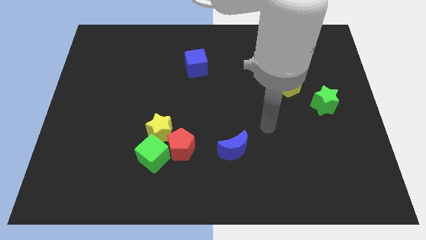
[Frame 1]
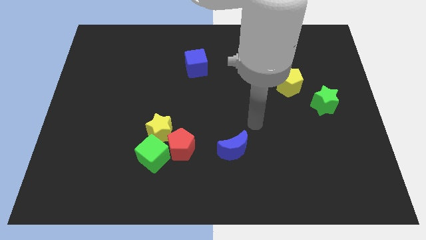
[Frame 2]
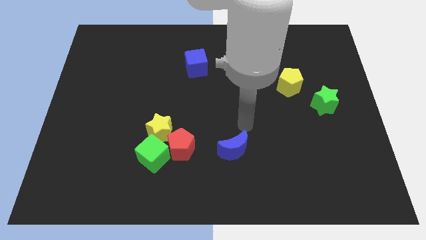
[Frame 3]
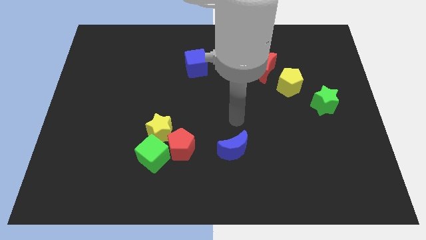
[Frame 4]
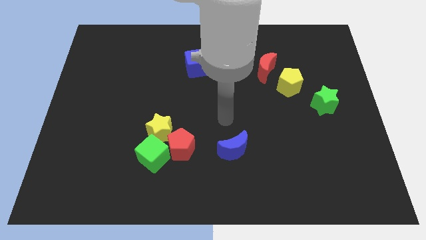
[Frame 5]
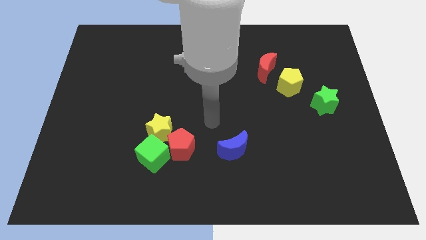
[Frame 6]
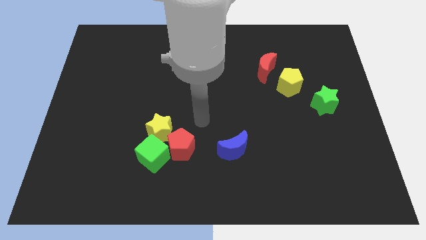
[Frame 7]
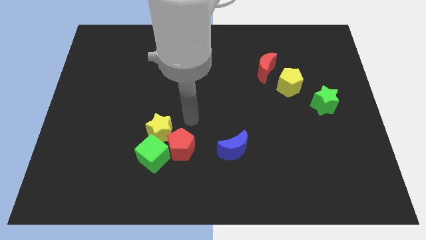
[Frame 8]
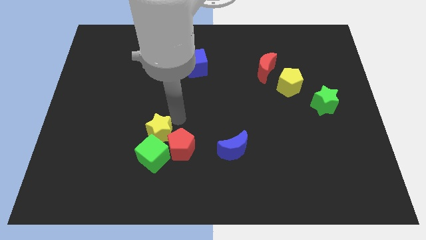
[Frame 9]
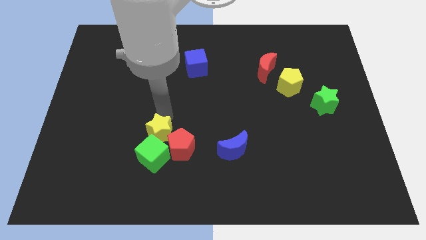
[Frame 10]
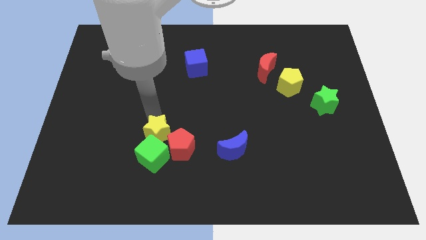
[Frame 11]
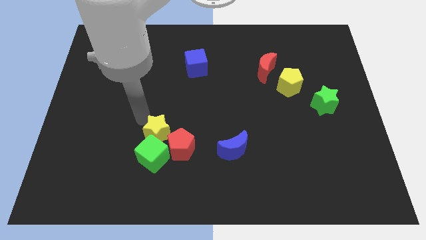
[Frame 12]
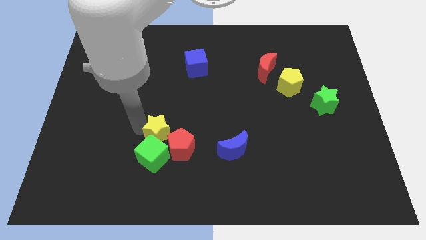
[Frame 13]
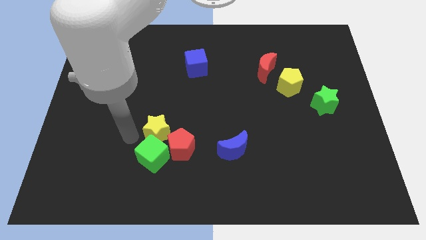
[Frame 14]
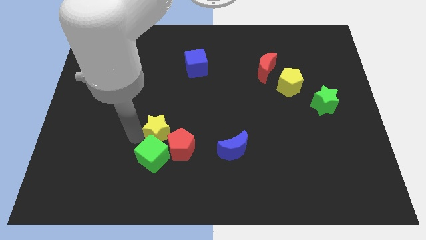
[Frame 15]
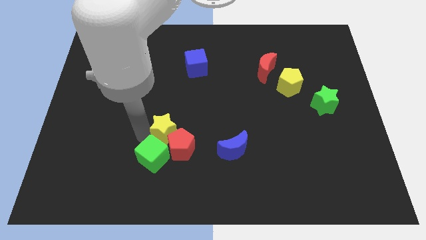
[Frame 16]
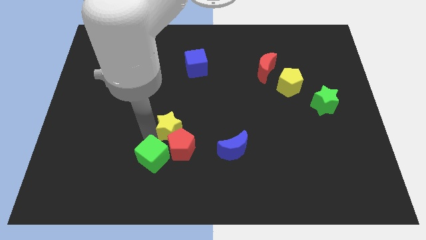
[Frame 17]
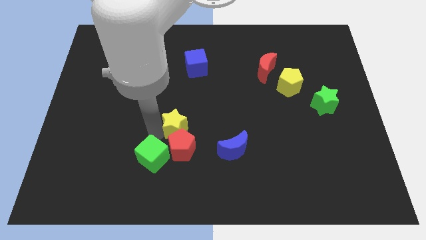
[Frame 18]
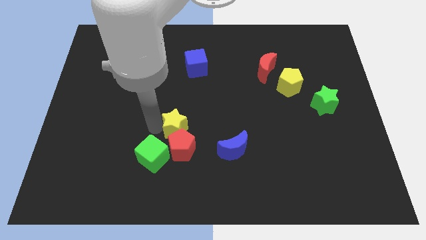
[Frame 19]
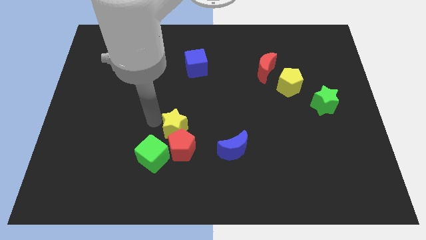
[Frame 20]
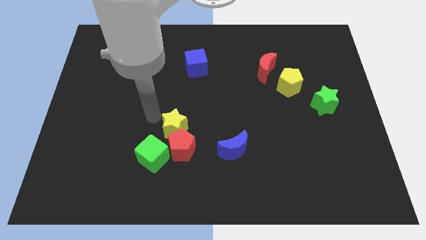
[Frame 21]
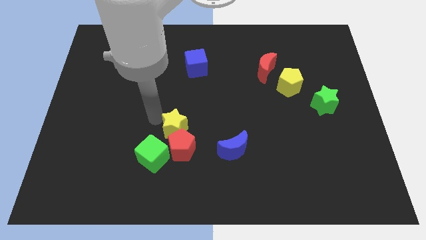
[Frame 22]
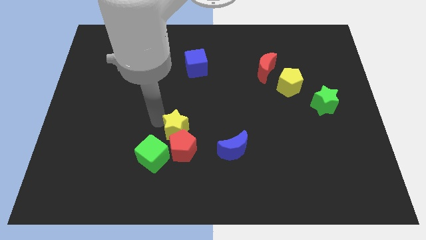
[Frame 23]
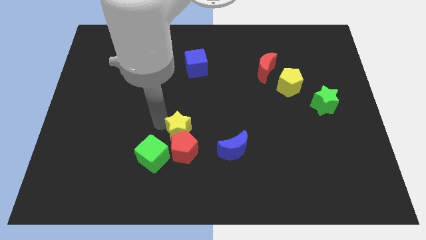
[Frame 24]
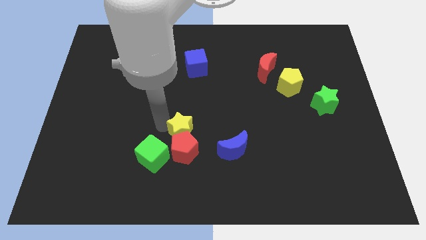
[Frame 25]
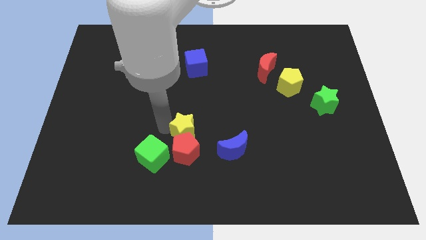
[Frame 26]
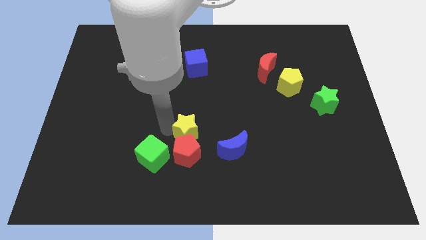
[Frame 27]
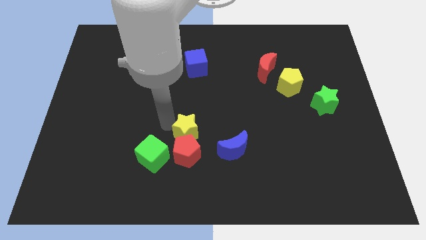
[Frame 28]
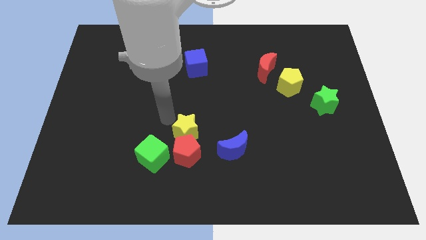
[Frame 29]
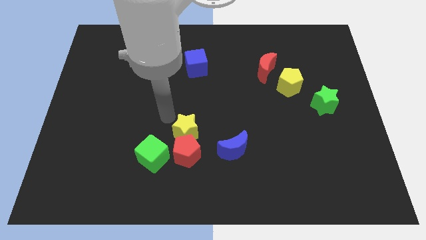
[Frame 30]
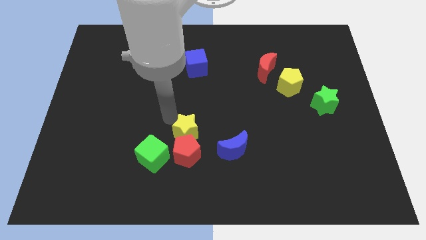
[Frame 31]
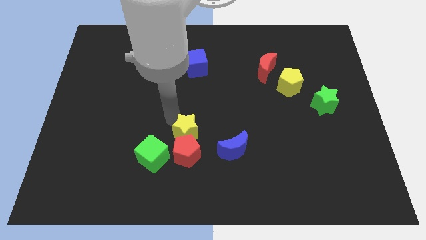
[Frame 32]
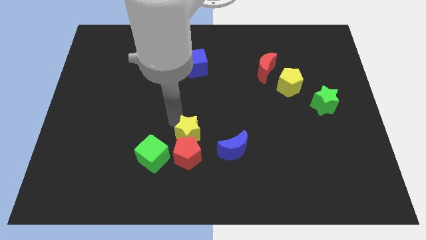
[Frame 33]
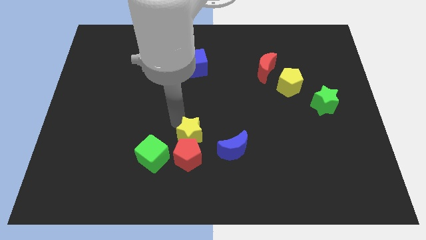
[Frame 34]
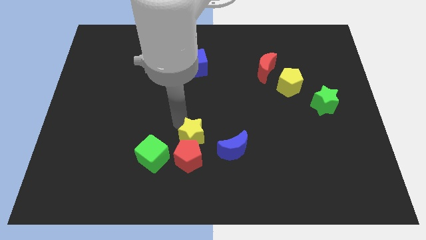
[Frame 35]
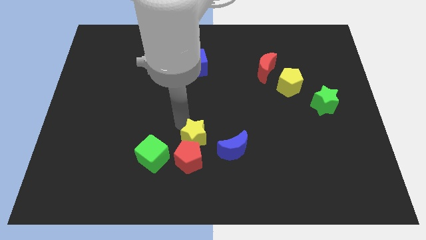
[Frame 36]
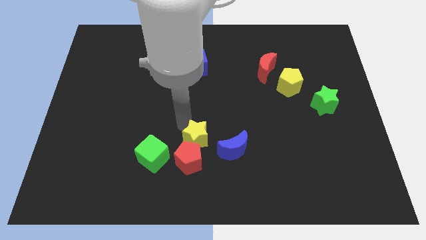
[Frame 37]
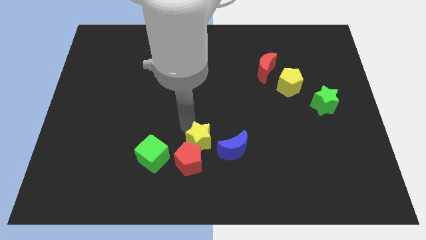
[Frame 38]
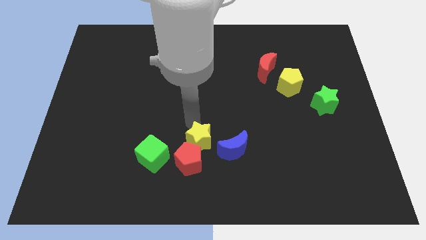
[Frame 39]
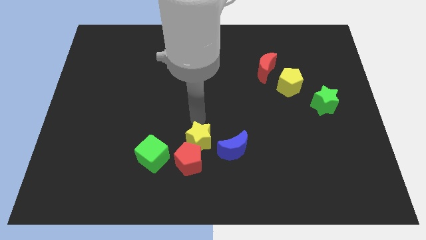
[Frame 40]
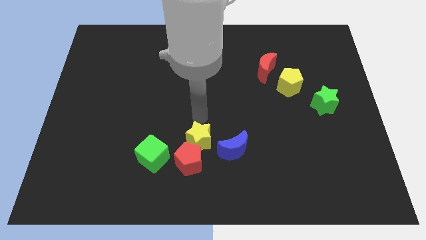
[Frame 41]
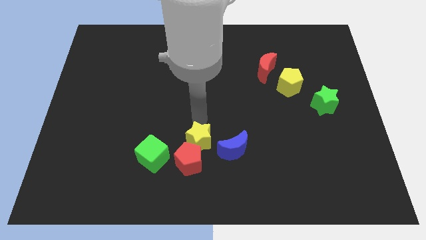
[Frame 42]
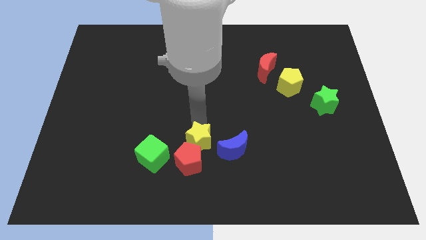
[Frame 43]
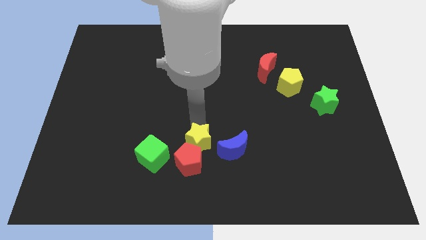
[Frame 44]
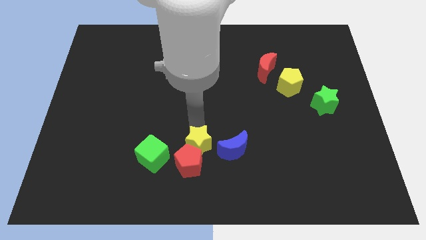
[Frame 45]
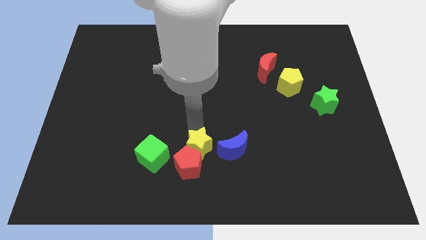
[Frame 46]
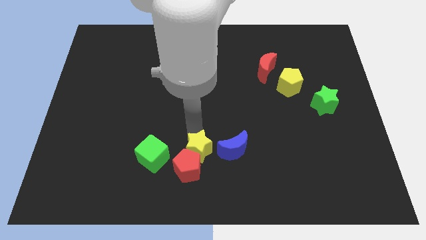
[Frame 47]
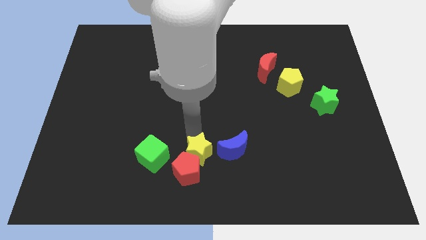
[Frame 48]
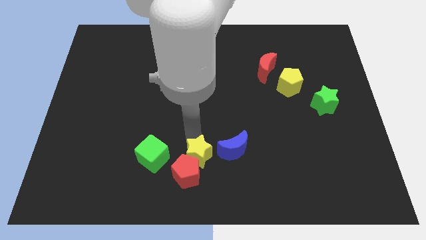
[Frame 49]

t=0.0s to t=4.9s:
slide the yellow star to the bottom side

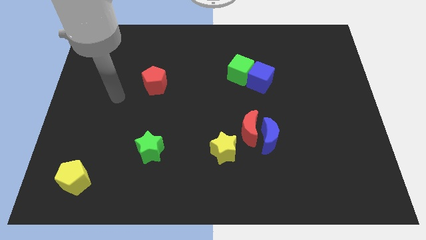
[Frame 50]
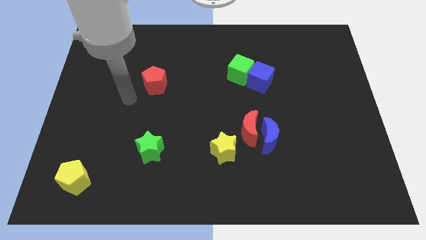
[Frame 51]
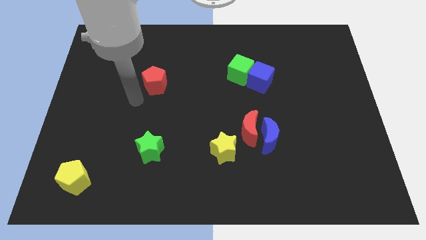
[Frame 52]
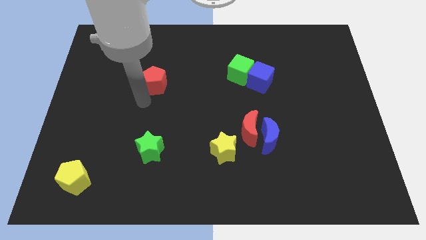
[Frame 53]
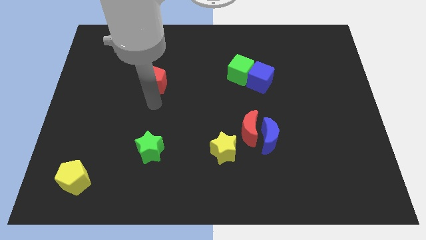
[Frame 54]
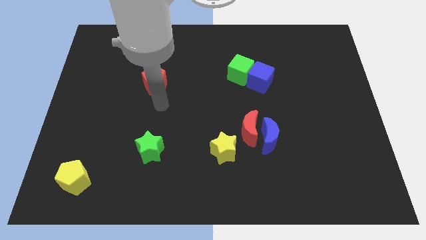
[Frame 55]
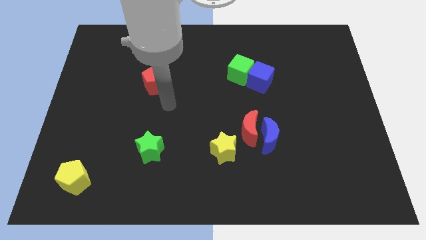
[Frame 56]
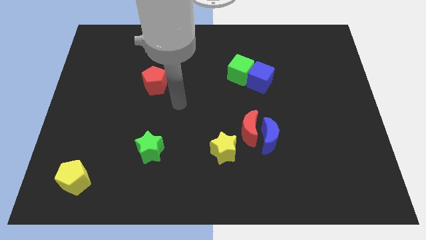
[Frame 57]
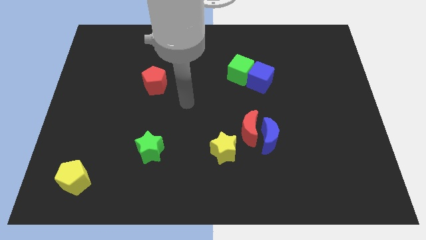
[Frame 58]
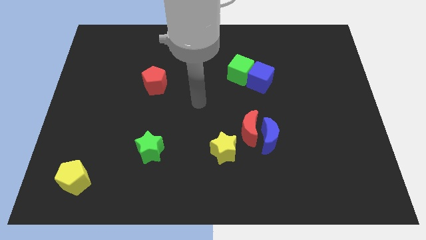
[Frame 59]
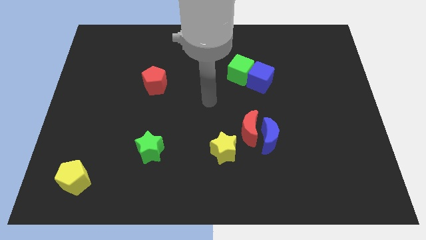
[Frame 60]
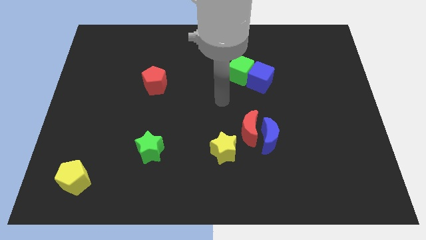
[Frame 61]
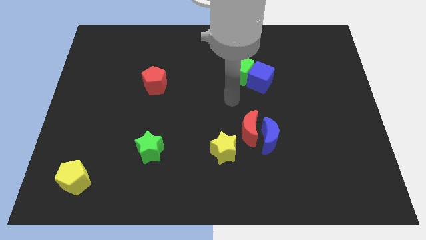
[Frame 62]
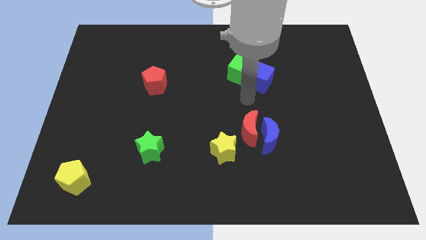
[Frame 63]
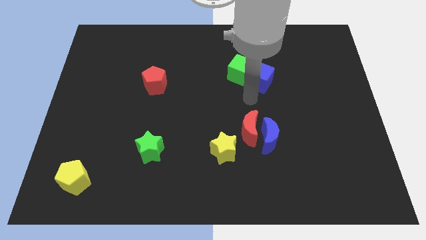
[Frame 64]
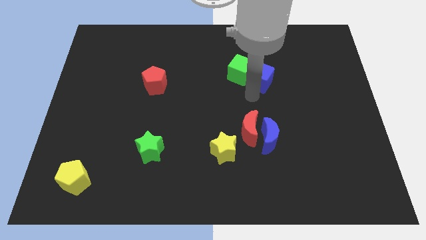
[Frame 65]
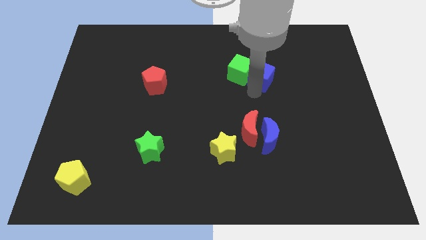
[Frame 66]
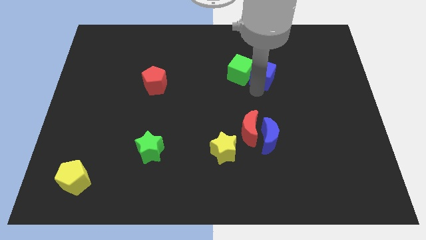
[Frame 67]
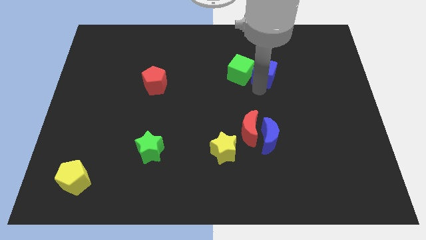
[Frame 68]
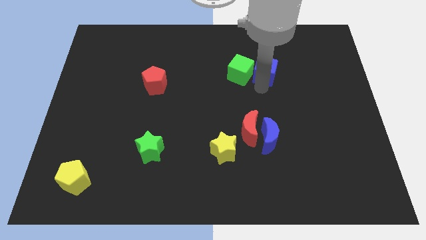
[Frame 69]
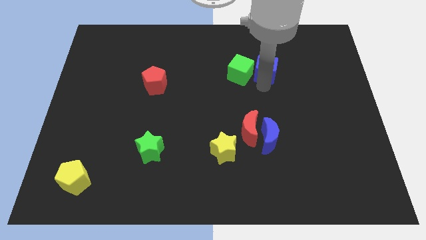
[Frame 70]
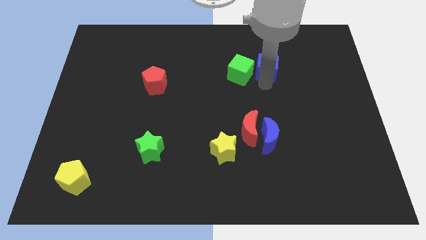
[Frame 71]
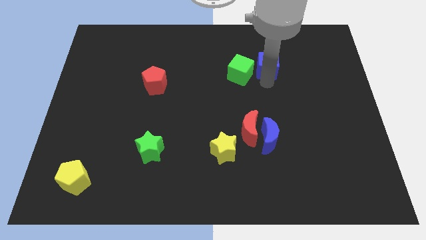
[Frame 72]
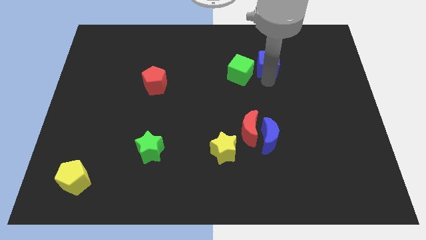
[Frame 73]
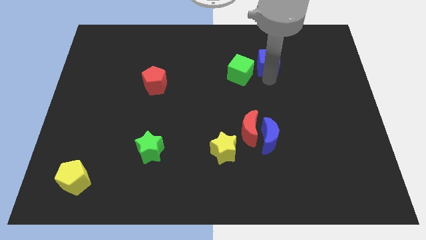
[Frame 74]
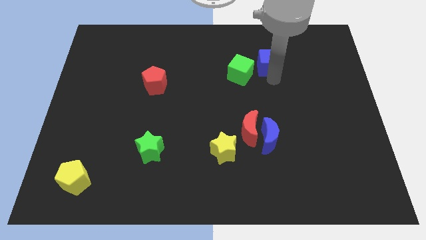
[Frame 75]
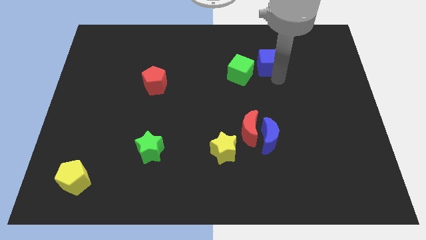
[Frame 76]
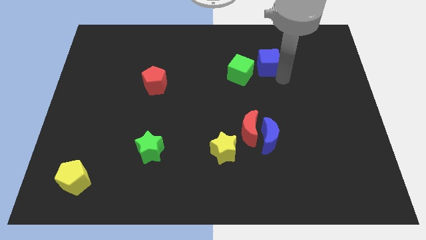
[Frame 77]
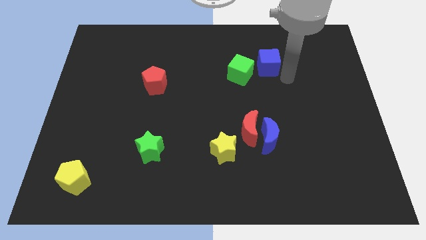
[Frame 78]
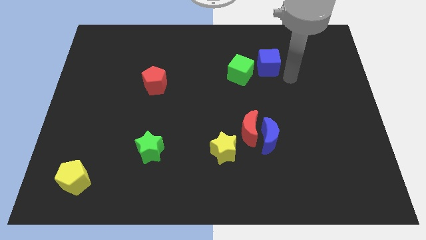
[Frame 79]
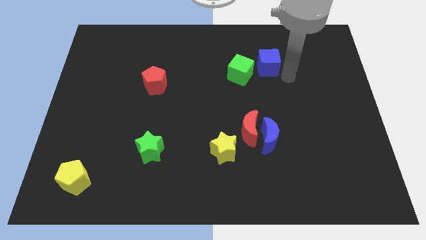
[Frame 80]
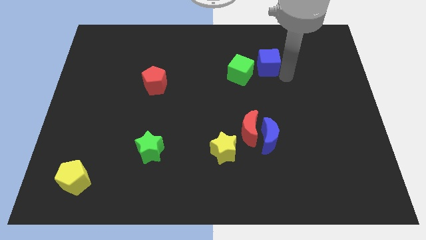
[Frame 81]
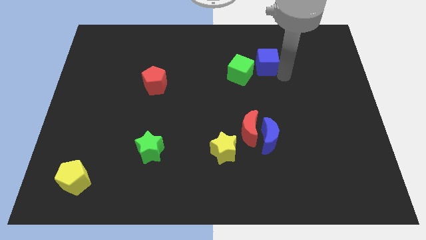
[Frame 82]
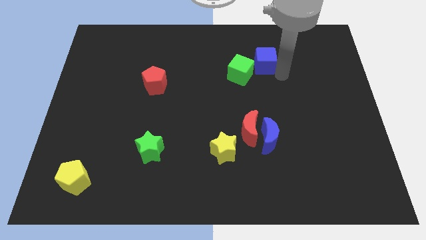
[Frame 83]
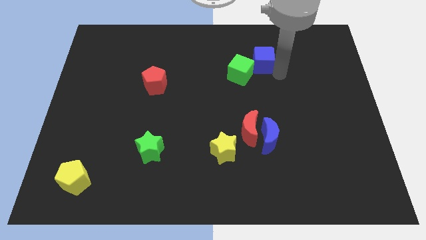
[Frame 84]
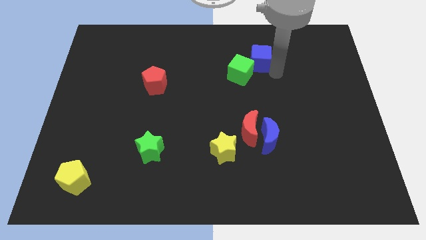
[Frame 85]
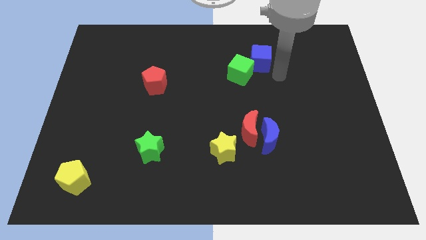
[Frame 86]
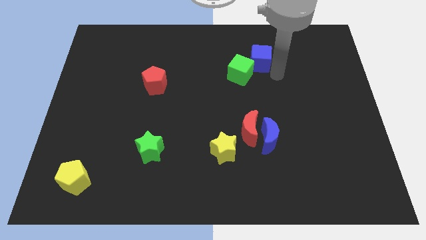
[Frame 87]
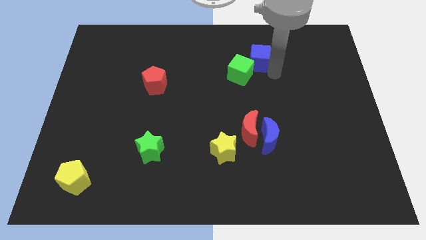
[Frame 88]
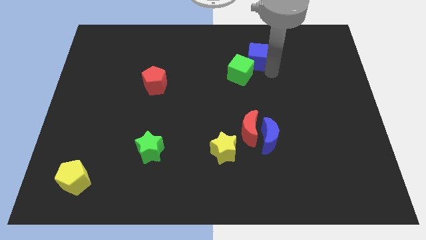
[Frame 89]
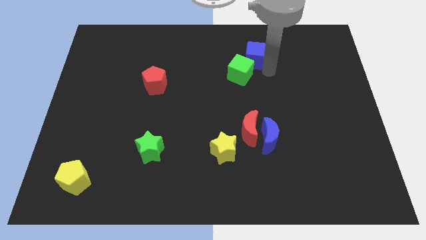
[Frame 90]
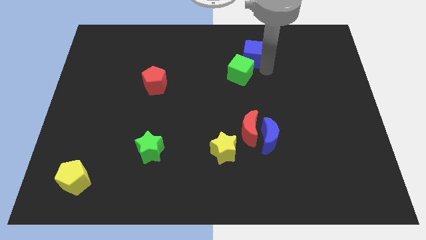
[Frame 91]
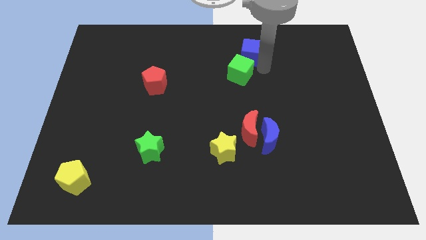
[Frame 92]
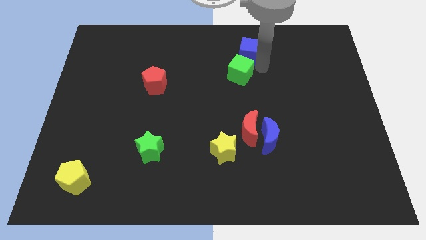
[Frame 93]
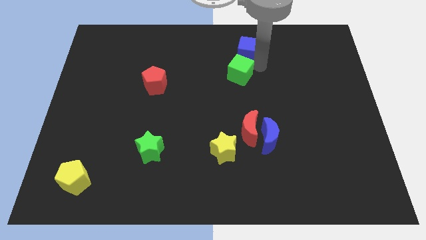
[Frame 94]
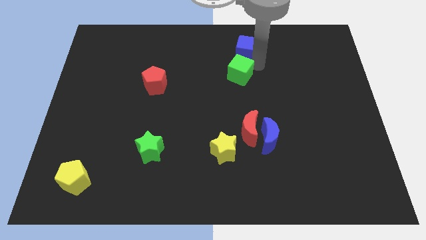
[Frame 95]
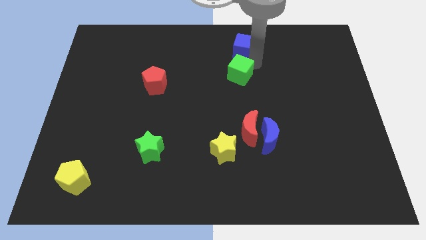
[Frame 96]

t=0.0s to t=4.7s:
push the blue cube to the towards your base
